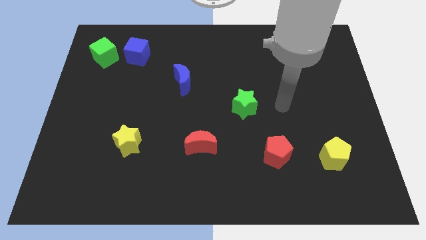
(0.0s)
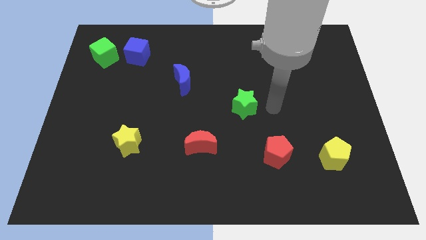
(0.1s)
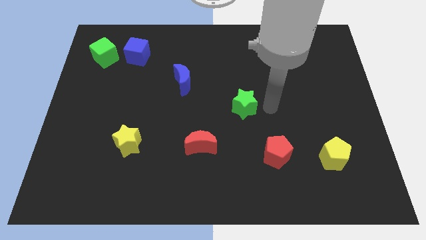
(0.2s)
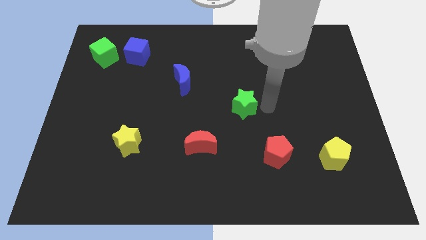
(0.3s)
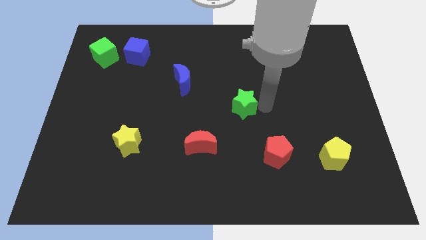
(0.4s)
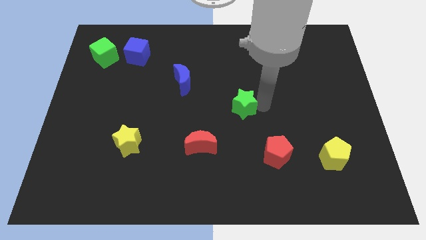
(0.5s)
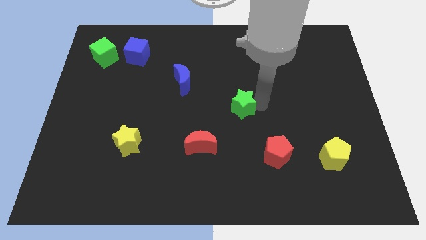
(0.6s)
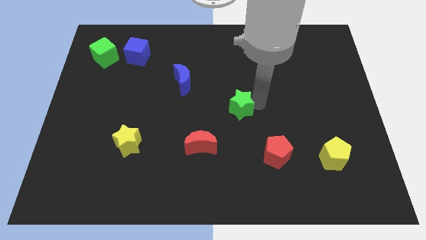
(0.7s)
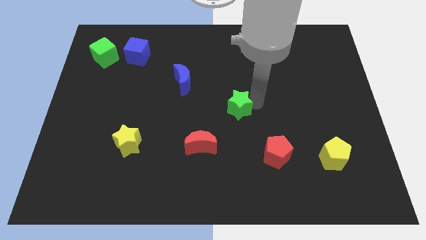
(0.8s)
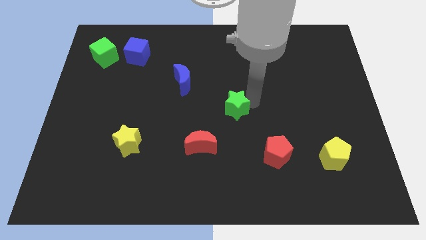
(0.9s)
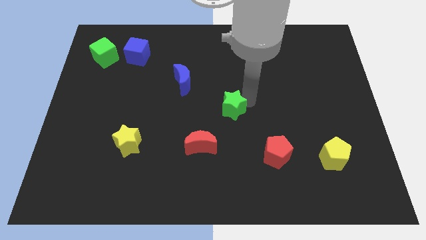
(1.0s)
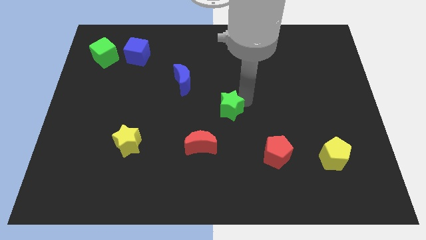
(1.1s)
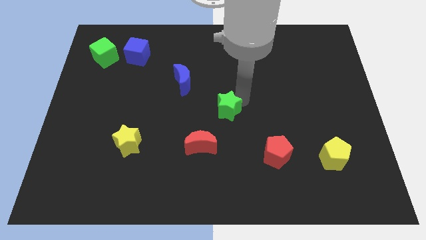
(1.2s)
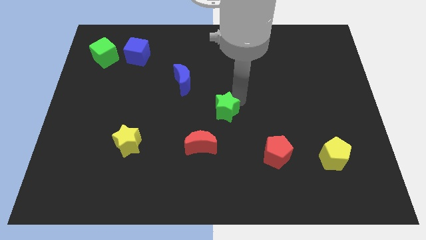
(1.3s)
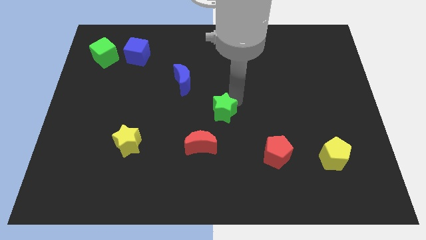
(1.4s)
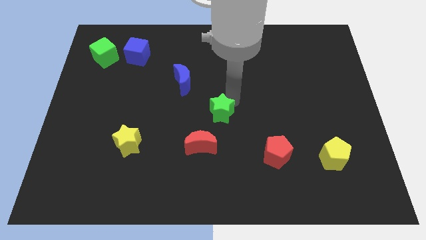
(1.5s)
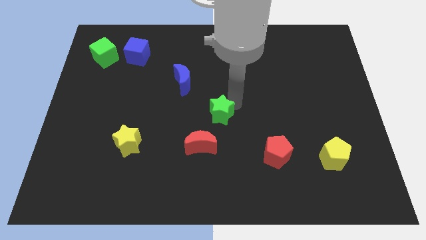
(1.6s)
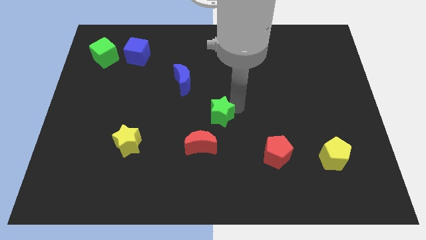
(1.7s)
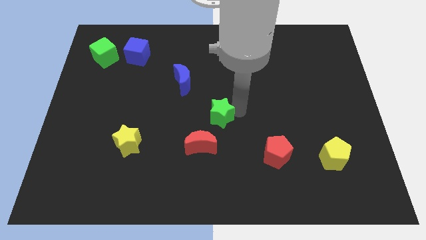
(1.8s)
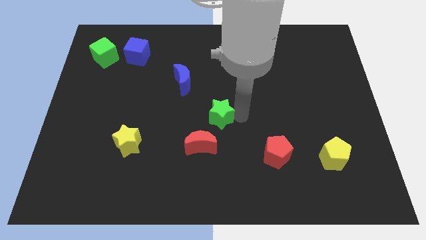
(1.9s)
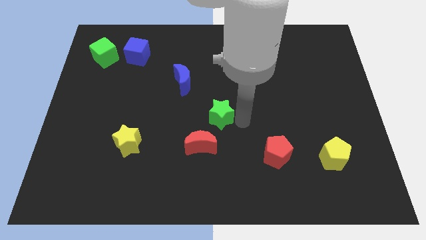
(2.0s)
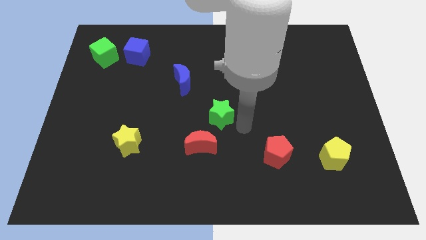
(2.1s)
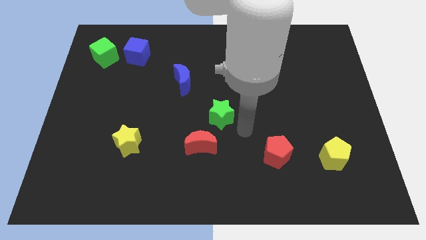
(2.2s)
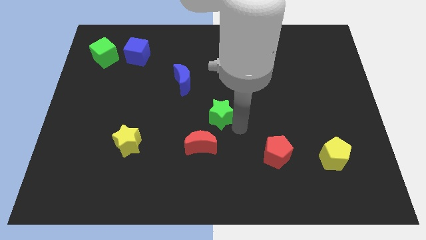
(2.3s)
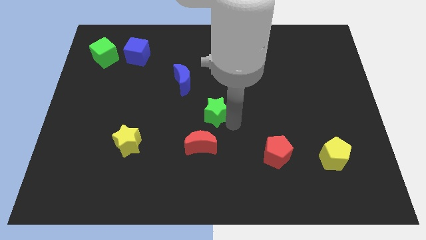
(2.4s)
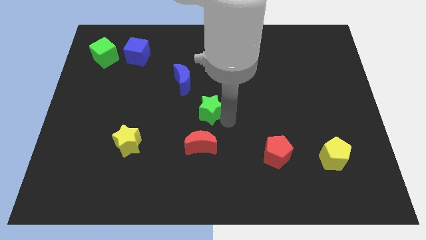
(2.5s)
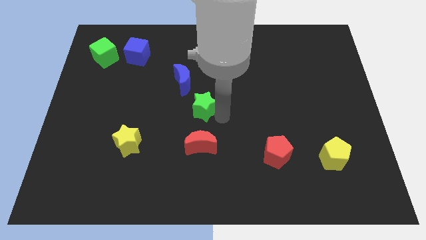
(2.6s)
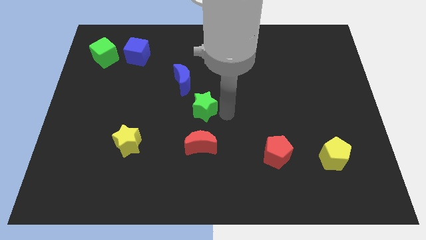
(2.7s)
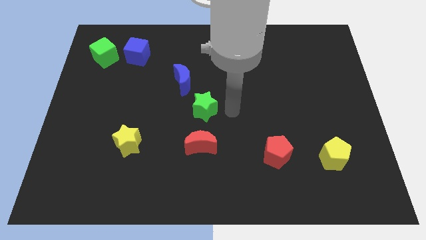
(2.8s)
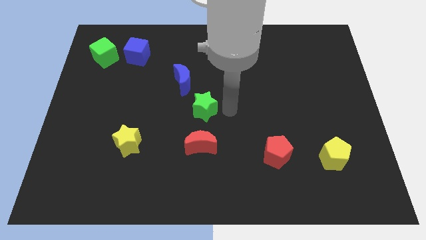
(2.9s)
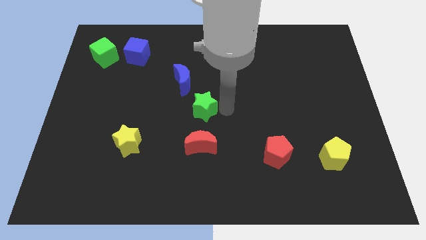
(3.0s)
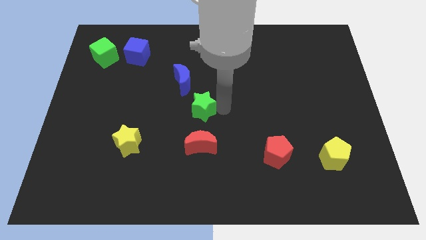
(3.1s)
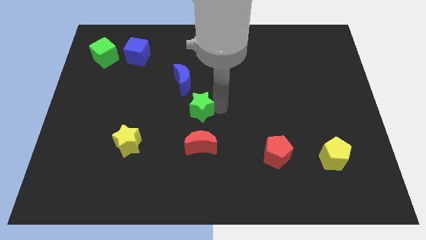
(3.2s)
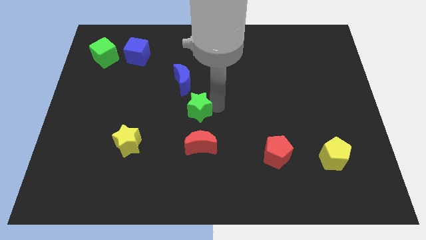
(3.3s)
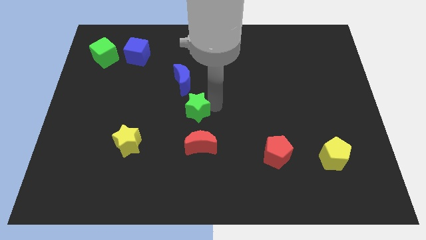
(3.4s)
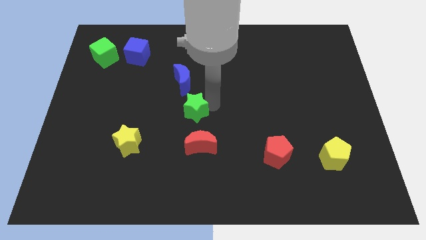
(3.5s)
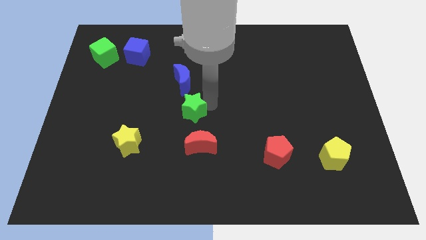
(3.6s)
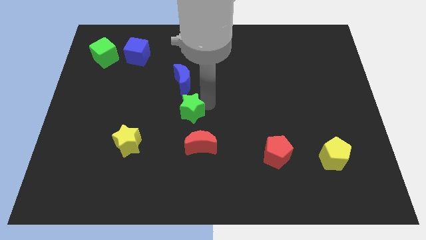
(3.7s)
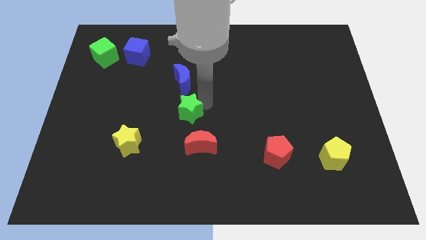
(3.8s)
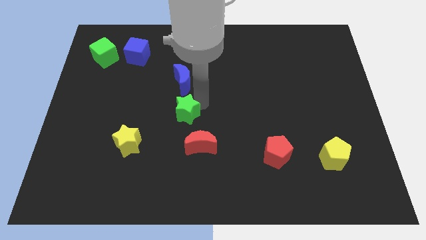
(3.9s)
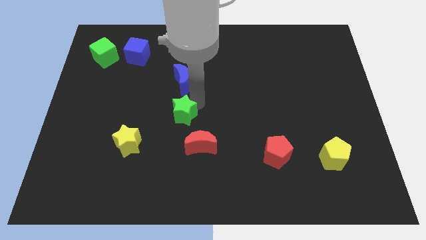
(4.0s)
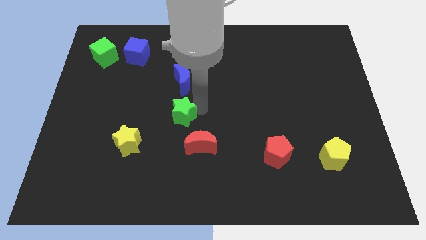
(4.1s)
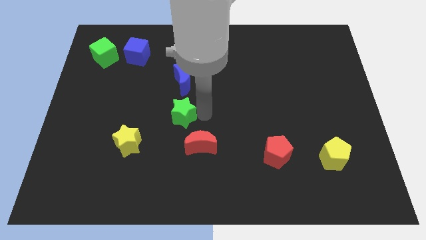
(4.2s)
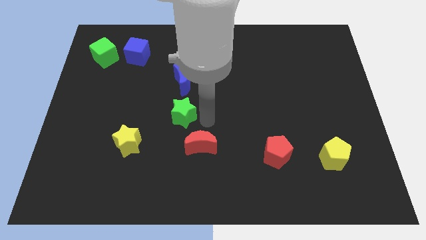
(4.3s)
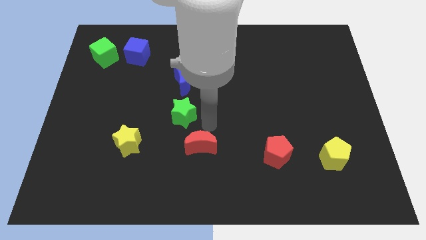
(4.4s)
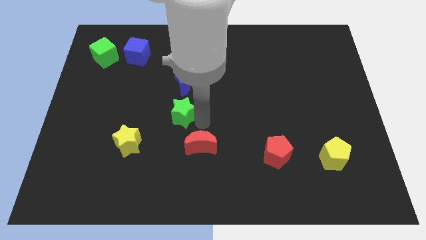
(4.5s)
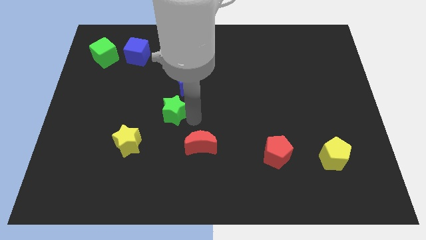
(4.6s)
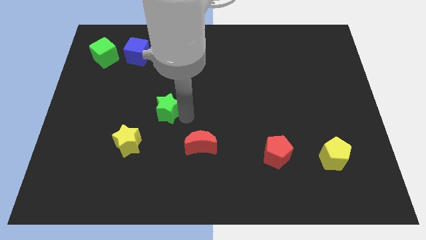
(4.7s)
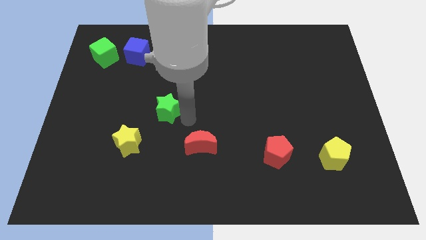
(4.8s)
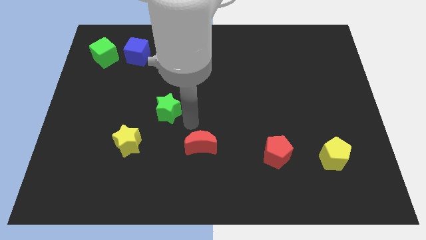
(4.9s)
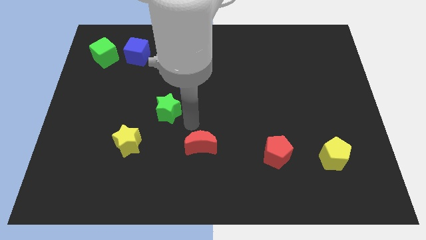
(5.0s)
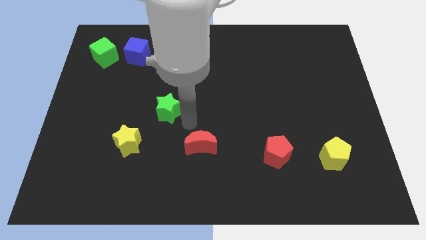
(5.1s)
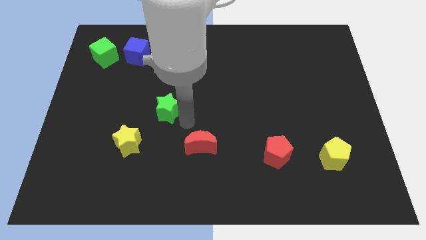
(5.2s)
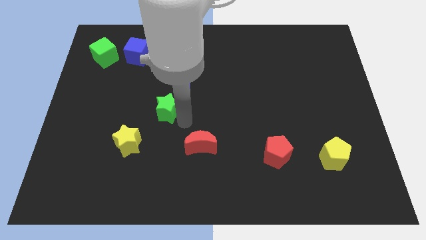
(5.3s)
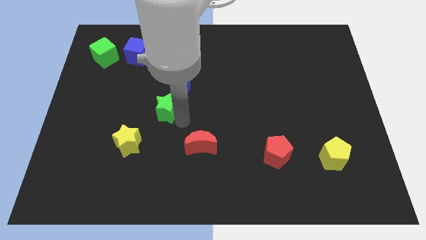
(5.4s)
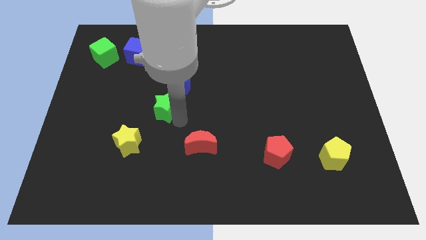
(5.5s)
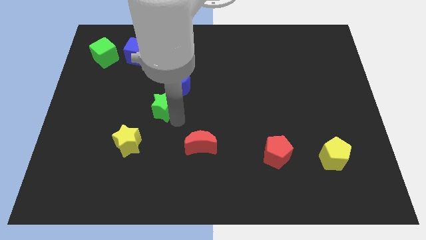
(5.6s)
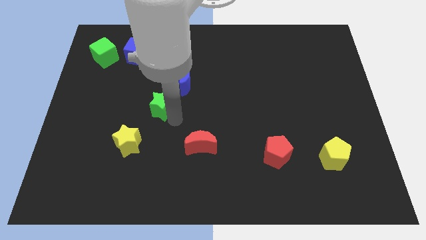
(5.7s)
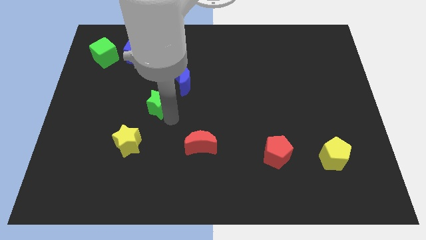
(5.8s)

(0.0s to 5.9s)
push the green star left

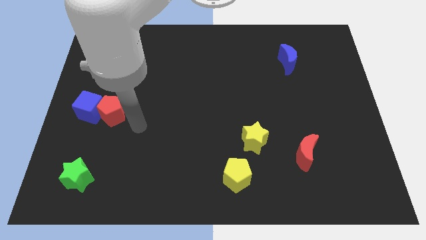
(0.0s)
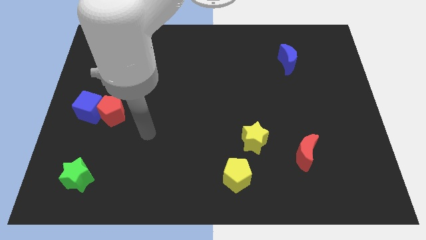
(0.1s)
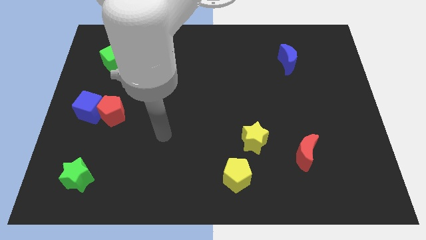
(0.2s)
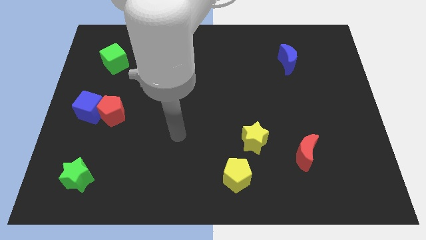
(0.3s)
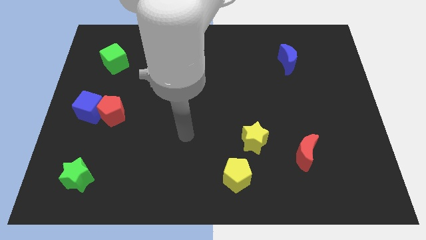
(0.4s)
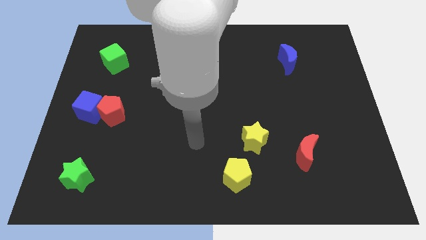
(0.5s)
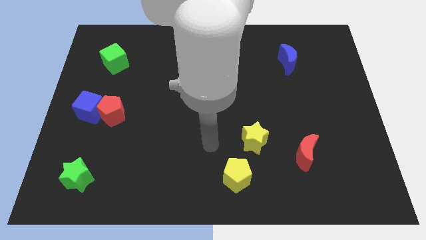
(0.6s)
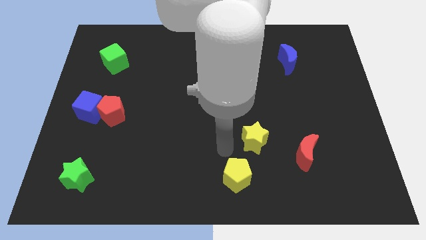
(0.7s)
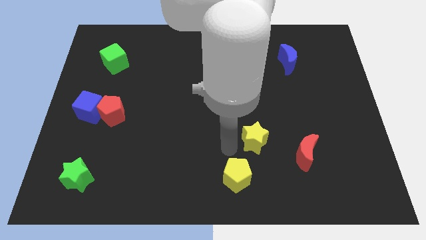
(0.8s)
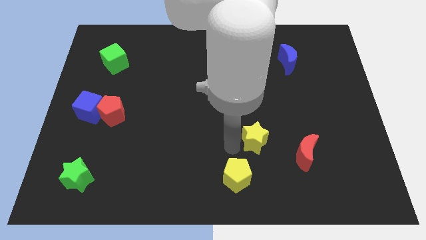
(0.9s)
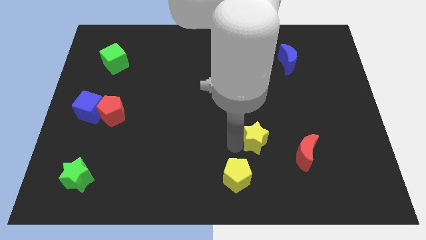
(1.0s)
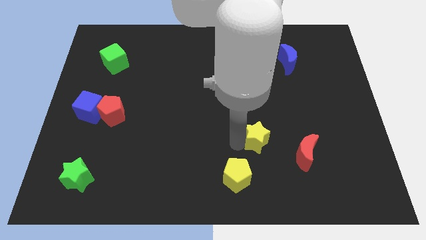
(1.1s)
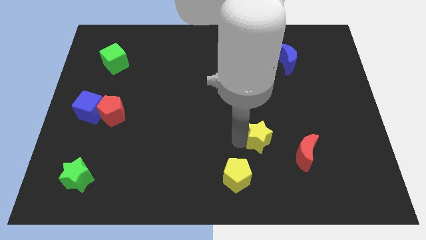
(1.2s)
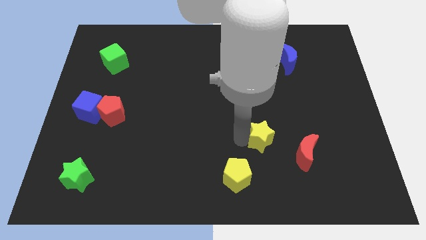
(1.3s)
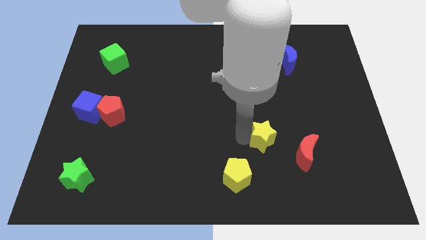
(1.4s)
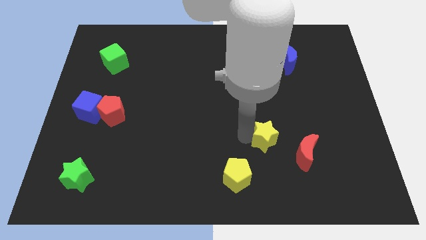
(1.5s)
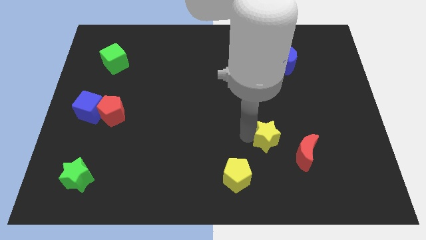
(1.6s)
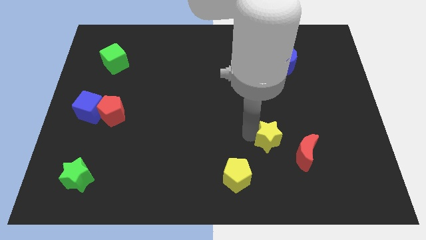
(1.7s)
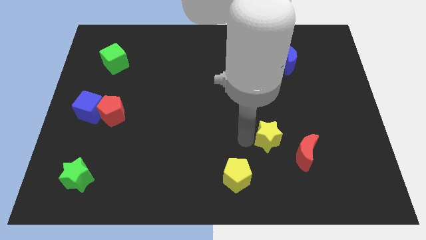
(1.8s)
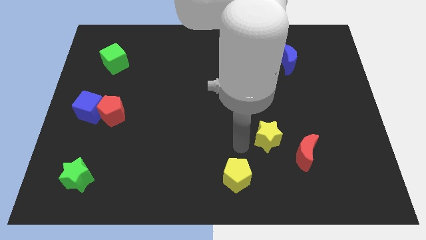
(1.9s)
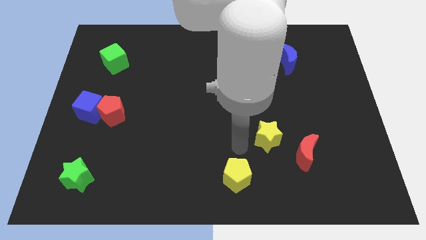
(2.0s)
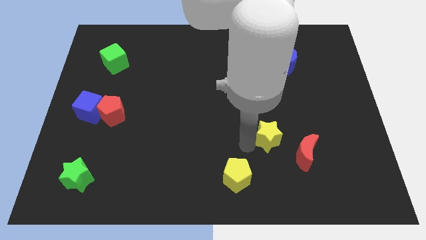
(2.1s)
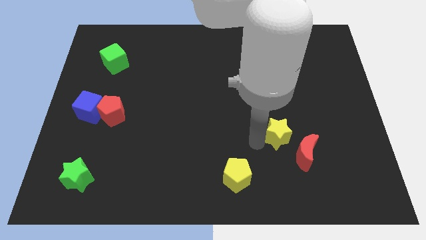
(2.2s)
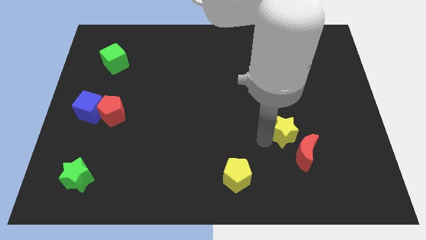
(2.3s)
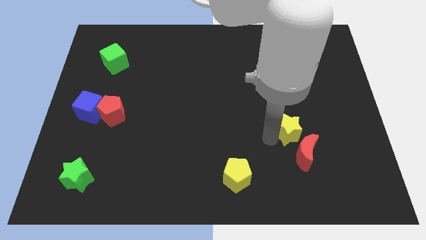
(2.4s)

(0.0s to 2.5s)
move the yellow star slightly right
